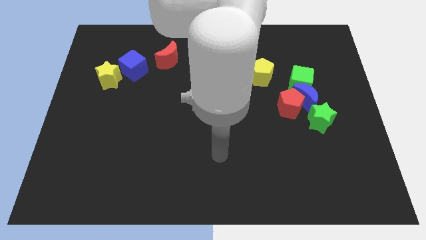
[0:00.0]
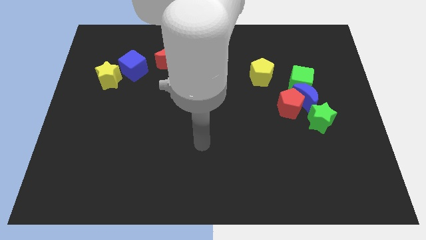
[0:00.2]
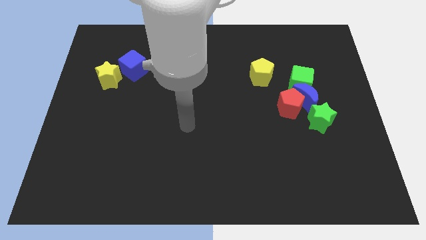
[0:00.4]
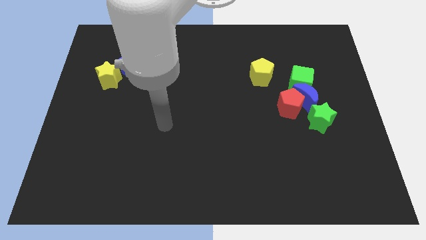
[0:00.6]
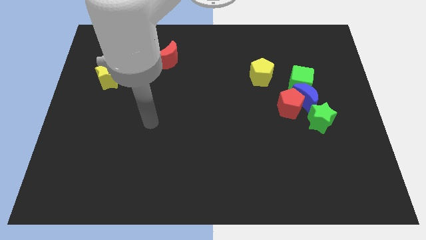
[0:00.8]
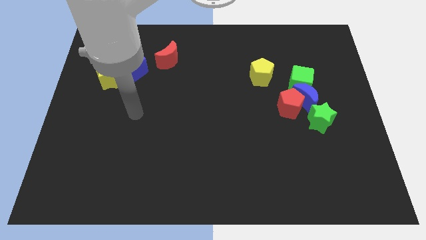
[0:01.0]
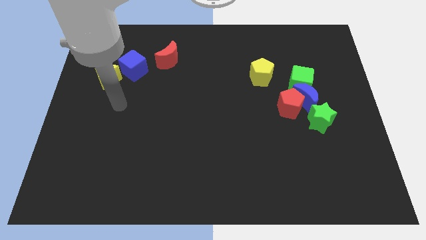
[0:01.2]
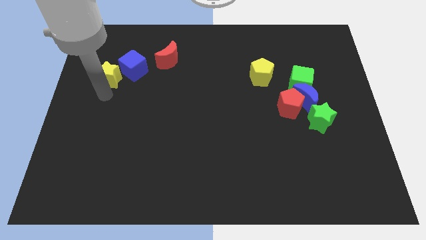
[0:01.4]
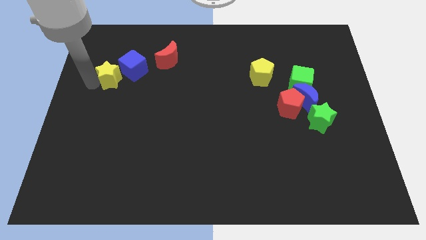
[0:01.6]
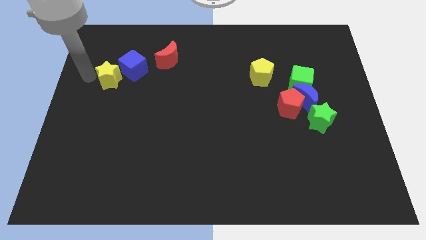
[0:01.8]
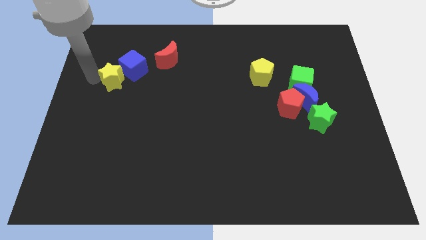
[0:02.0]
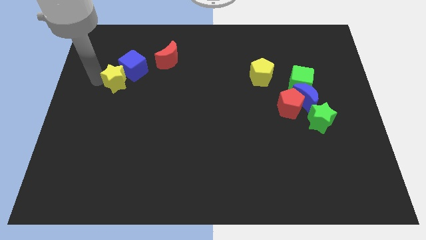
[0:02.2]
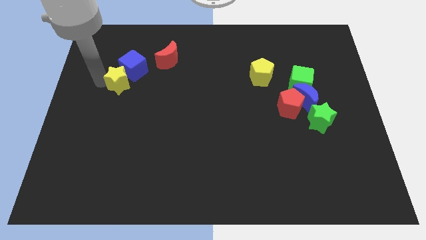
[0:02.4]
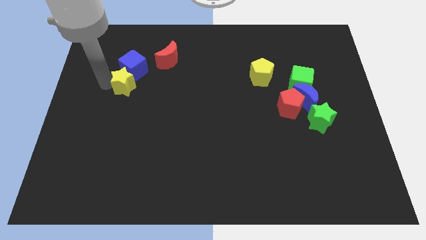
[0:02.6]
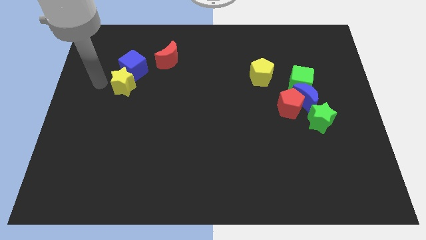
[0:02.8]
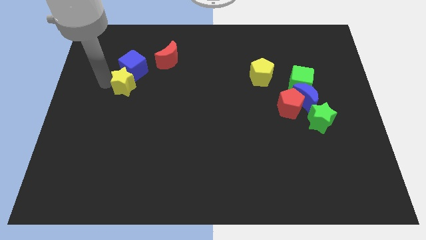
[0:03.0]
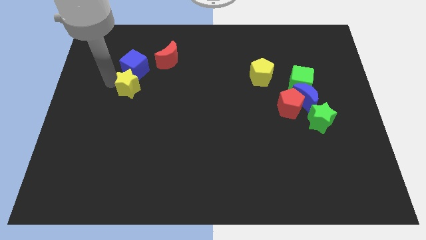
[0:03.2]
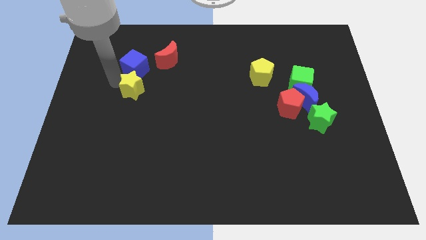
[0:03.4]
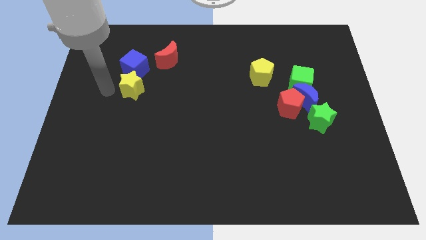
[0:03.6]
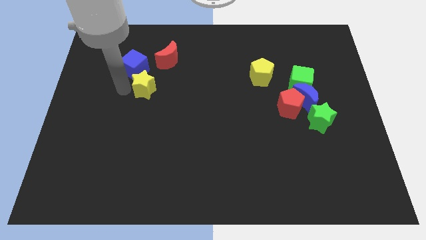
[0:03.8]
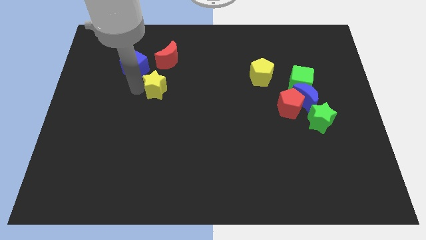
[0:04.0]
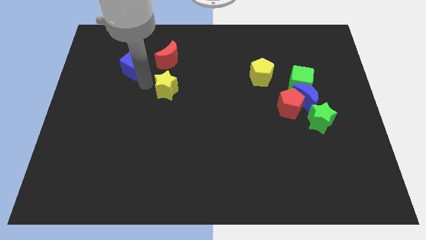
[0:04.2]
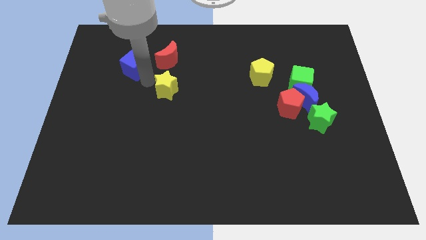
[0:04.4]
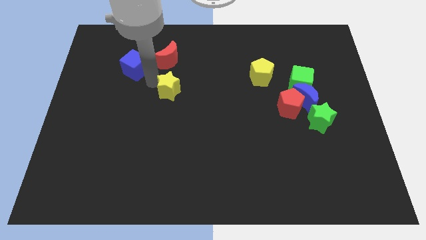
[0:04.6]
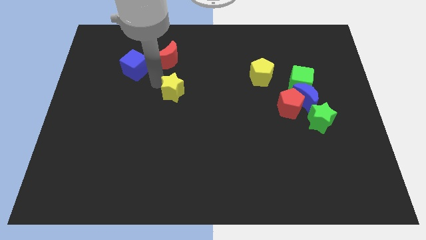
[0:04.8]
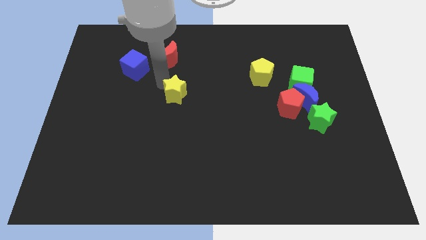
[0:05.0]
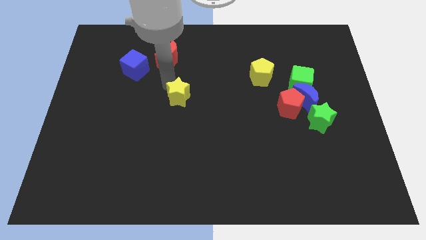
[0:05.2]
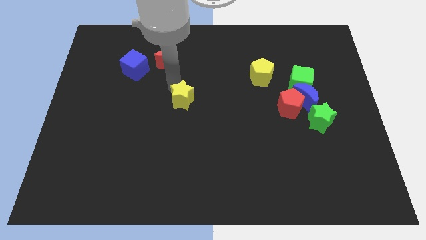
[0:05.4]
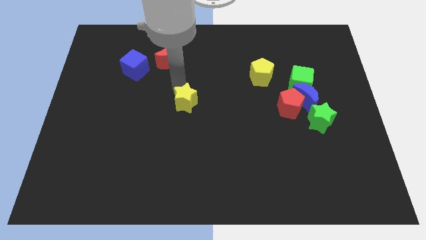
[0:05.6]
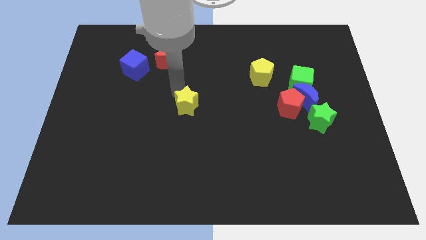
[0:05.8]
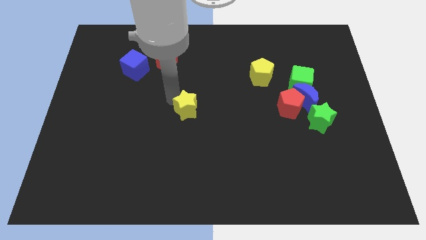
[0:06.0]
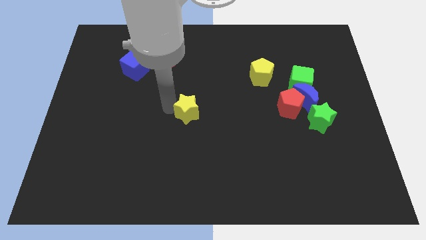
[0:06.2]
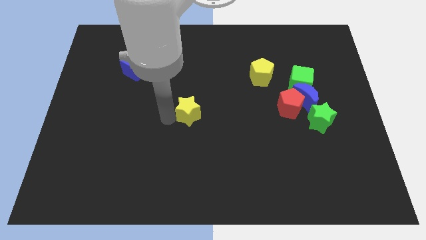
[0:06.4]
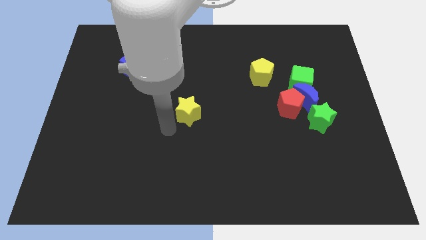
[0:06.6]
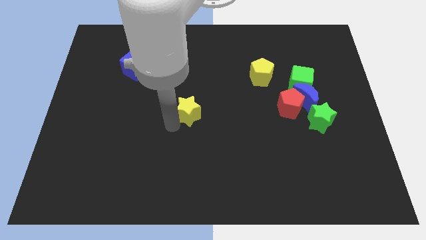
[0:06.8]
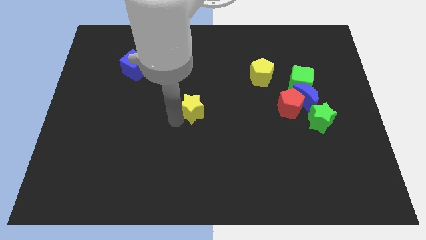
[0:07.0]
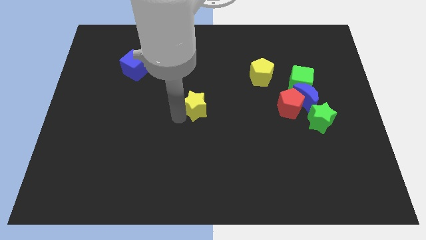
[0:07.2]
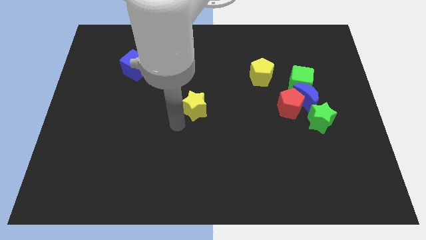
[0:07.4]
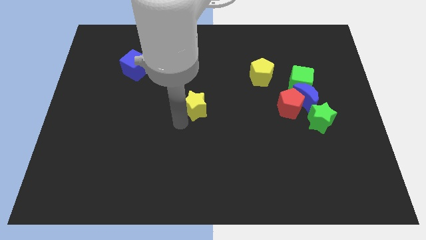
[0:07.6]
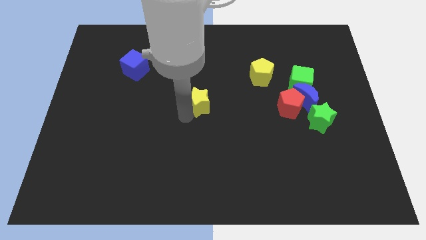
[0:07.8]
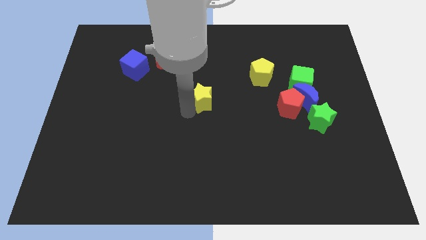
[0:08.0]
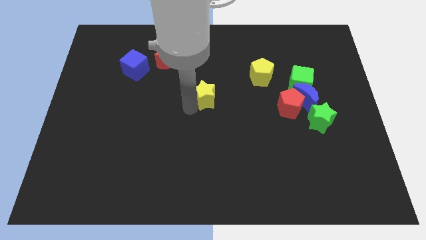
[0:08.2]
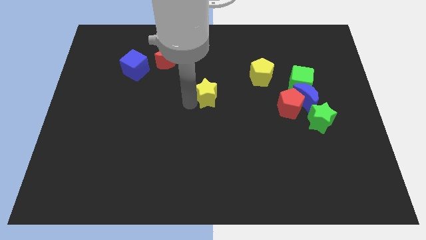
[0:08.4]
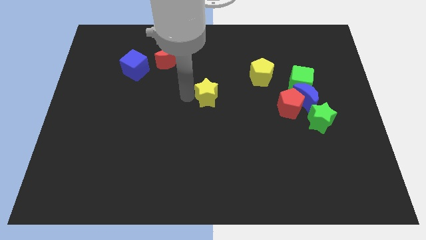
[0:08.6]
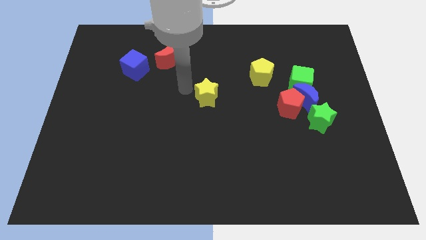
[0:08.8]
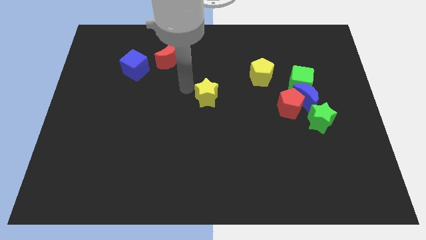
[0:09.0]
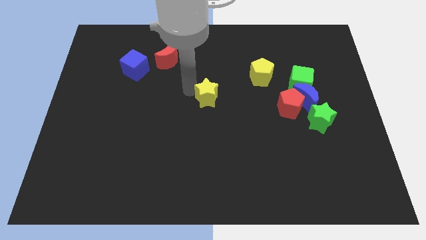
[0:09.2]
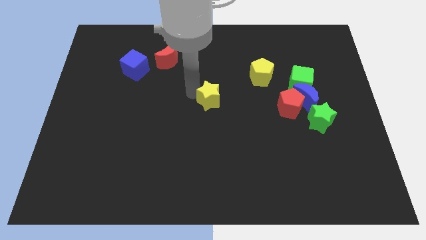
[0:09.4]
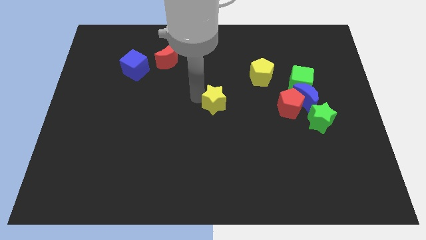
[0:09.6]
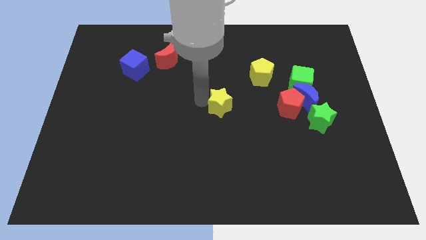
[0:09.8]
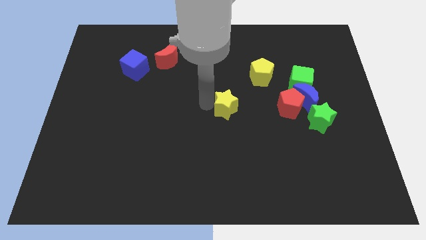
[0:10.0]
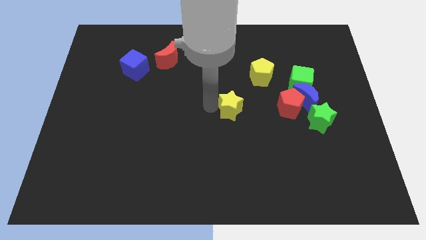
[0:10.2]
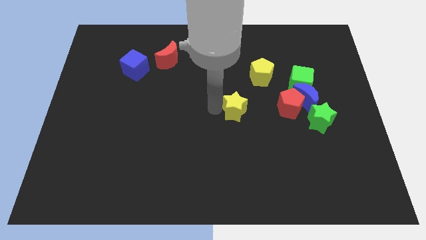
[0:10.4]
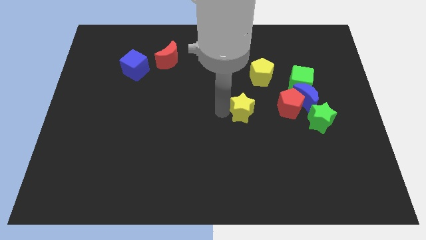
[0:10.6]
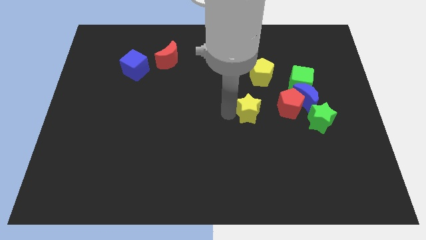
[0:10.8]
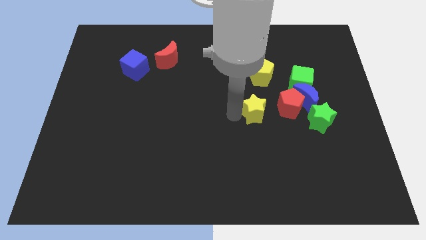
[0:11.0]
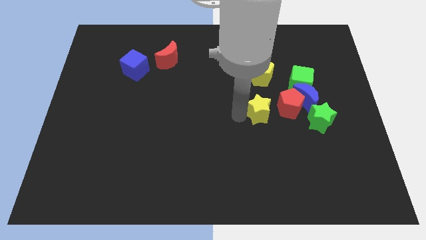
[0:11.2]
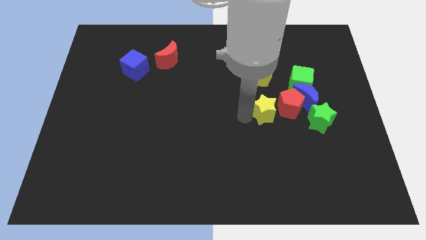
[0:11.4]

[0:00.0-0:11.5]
push the yellow star to the bottom left side of the green cube

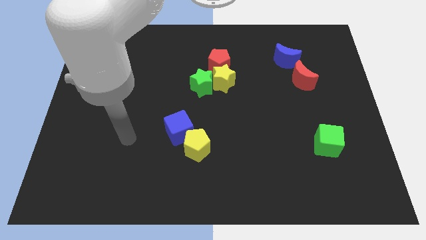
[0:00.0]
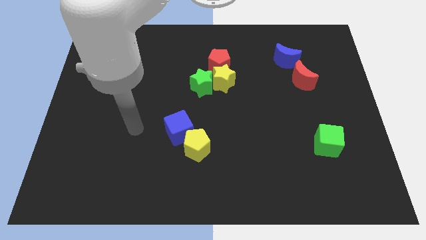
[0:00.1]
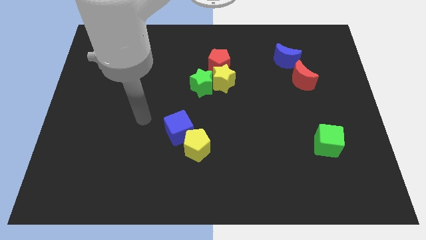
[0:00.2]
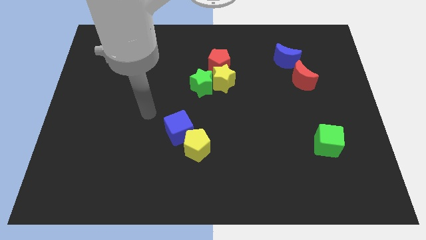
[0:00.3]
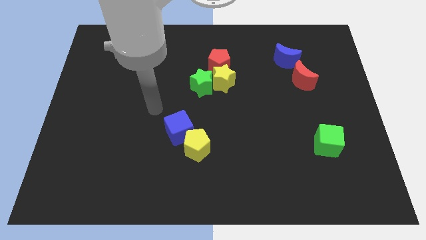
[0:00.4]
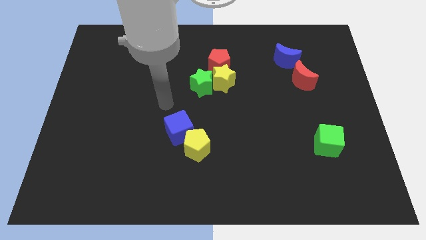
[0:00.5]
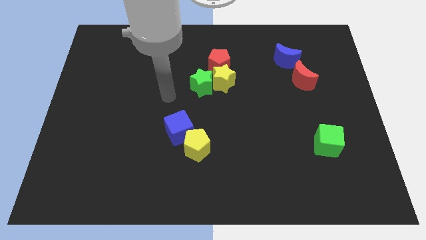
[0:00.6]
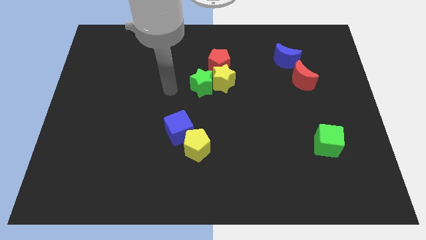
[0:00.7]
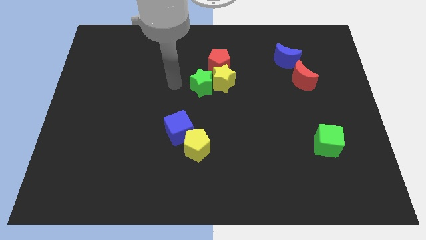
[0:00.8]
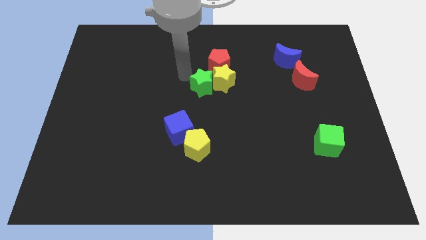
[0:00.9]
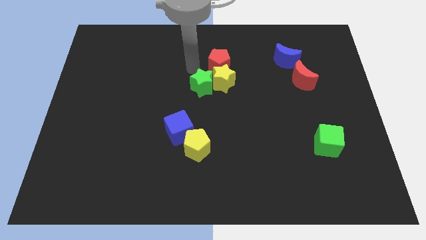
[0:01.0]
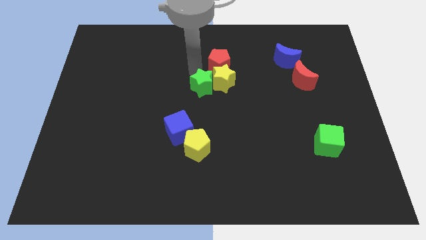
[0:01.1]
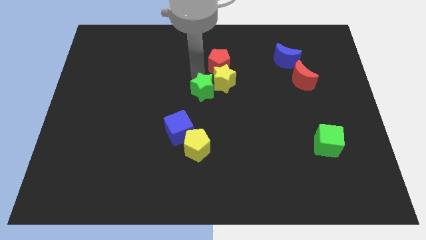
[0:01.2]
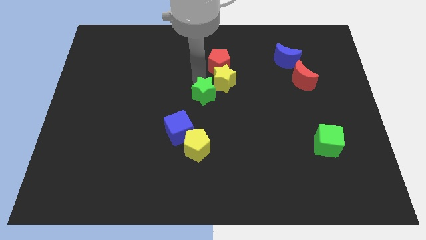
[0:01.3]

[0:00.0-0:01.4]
push the green star below the yellow star
